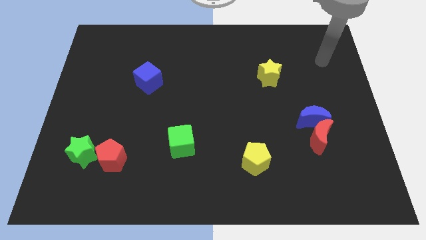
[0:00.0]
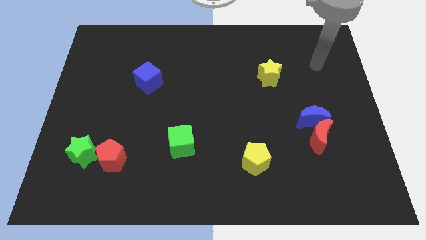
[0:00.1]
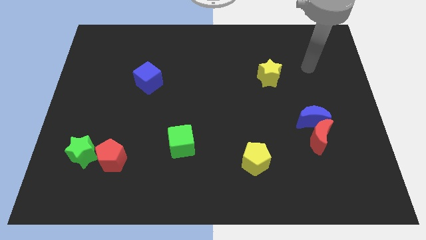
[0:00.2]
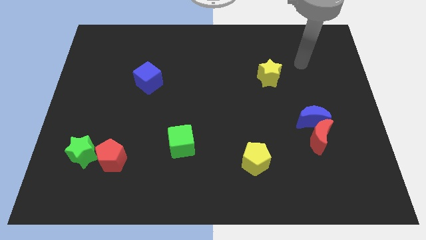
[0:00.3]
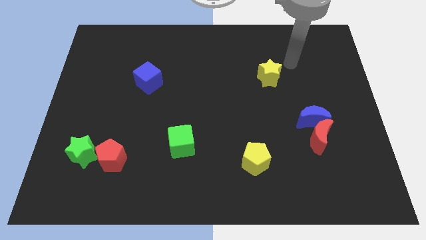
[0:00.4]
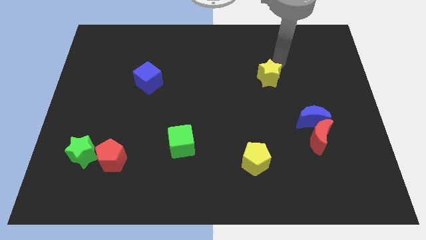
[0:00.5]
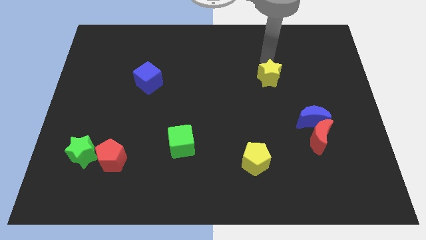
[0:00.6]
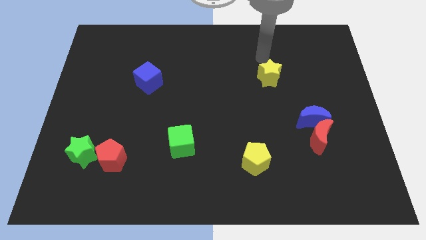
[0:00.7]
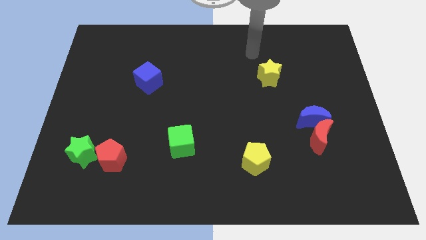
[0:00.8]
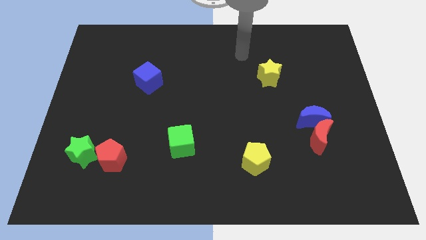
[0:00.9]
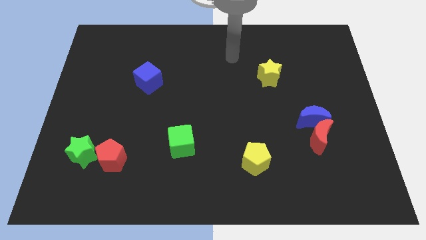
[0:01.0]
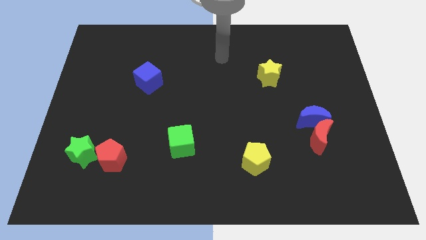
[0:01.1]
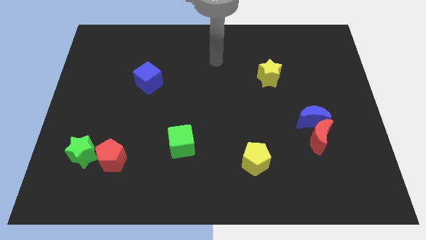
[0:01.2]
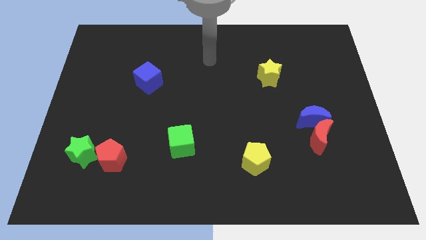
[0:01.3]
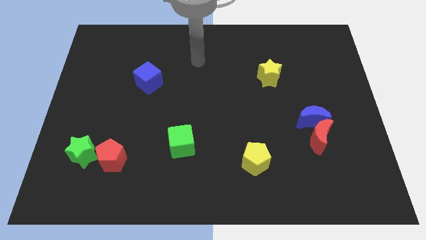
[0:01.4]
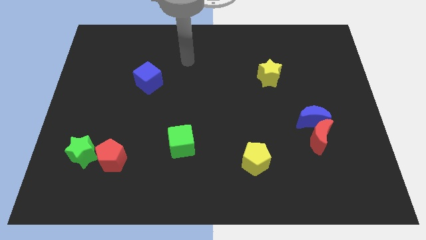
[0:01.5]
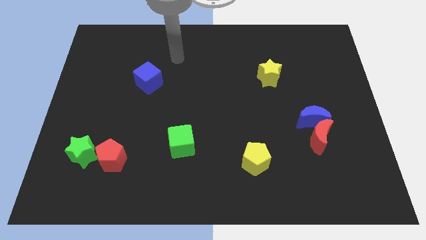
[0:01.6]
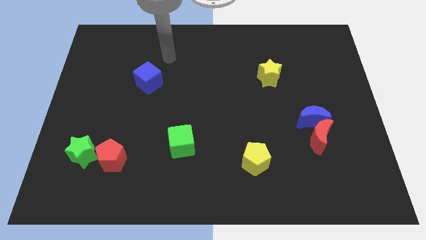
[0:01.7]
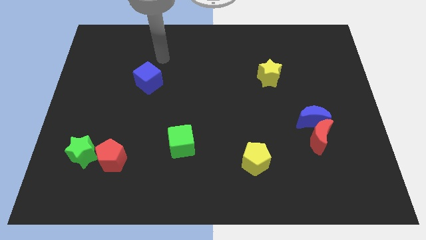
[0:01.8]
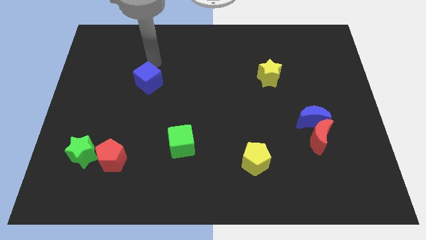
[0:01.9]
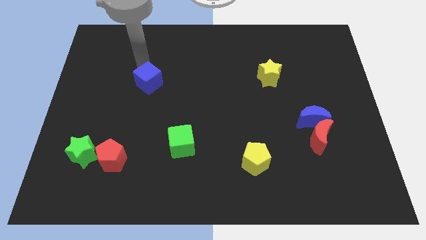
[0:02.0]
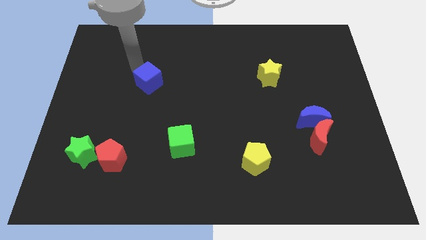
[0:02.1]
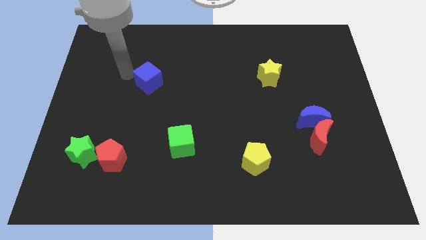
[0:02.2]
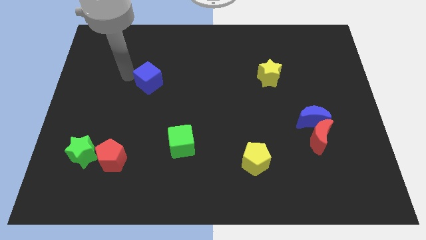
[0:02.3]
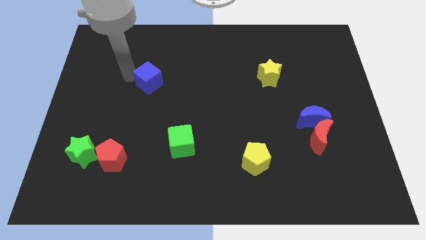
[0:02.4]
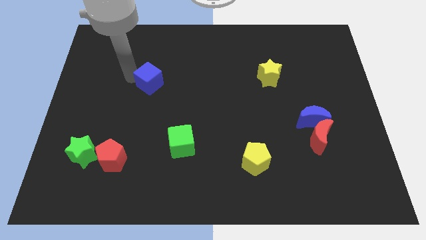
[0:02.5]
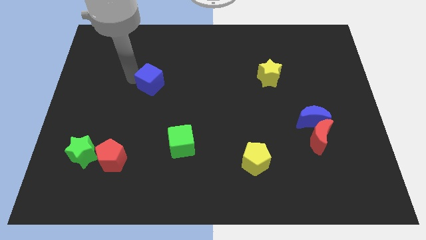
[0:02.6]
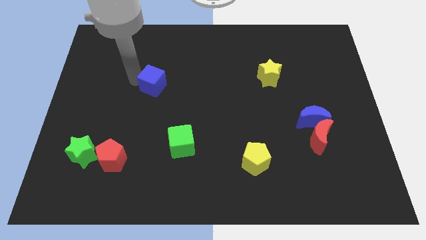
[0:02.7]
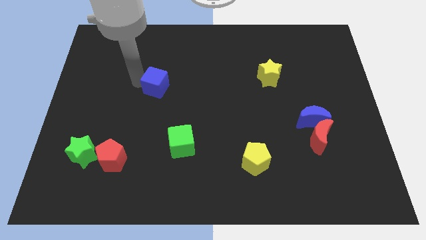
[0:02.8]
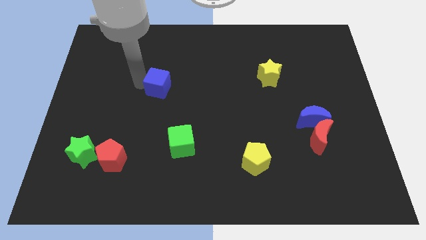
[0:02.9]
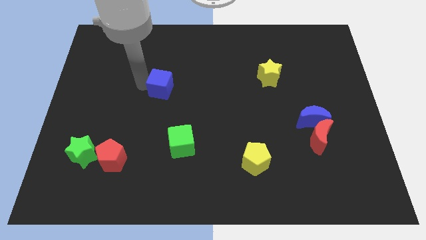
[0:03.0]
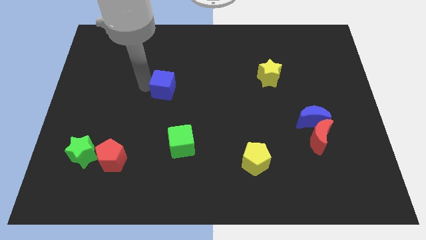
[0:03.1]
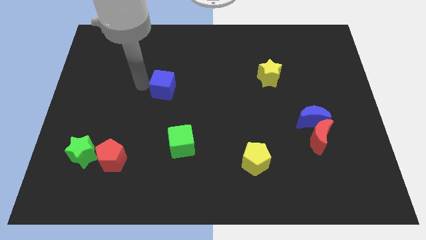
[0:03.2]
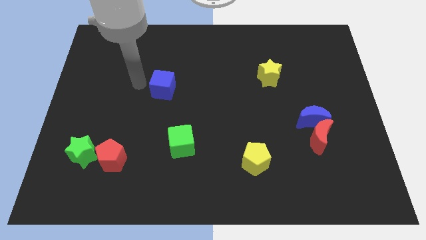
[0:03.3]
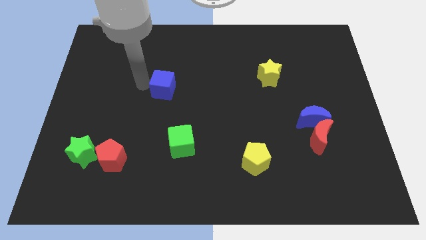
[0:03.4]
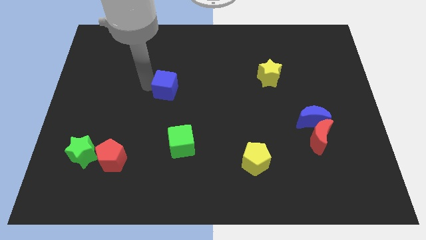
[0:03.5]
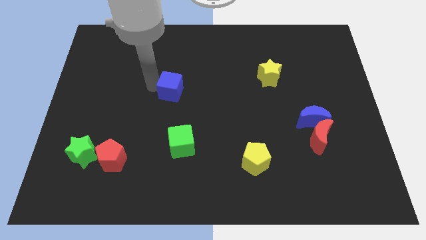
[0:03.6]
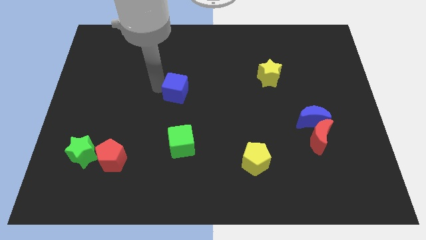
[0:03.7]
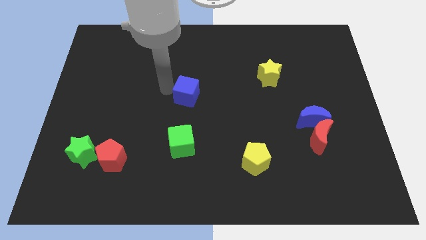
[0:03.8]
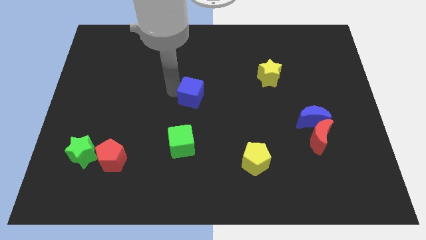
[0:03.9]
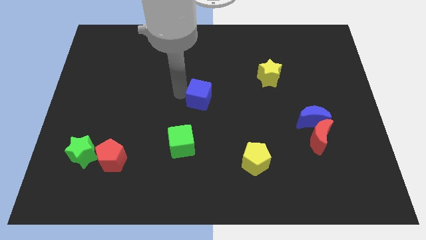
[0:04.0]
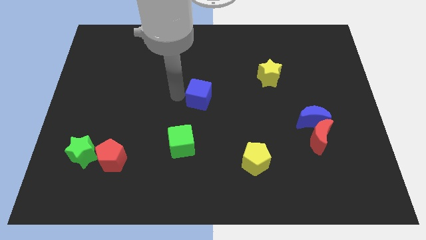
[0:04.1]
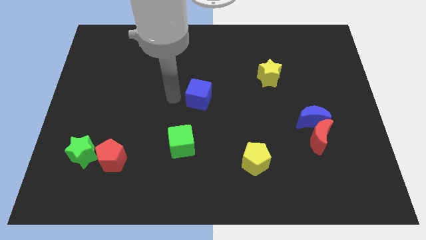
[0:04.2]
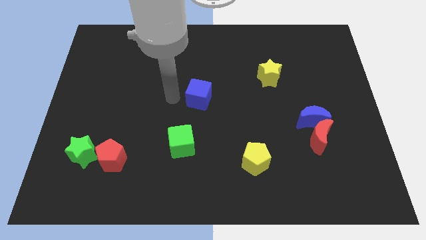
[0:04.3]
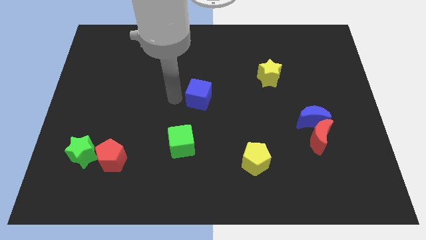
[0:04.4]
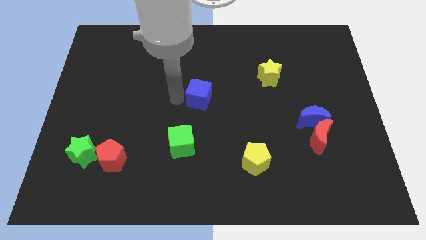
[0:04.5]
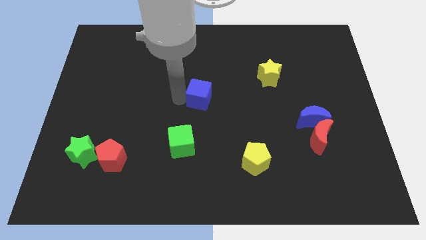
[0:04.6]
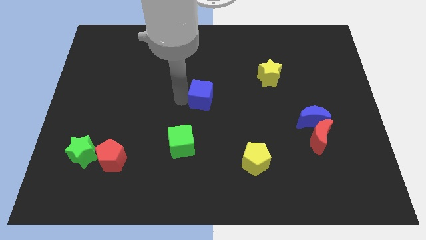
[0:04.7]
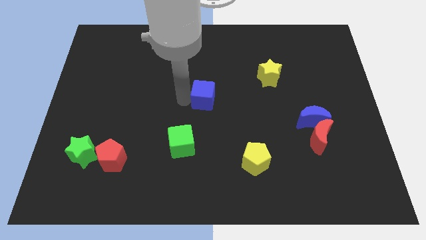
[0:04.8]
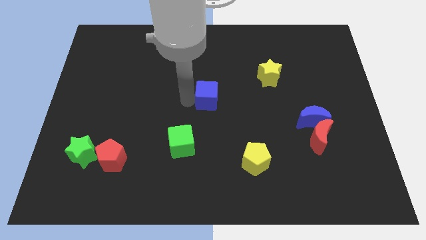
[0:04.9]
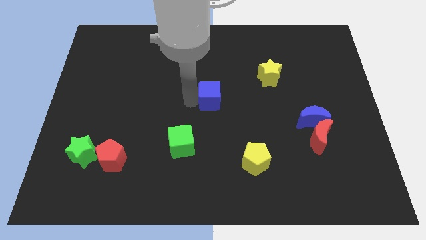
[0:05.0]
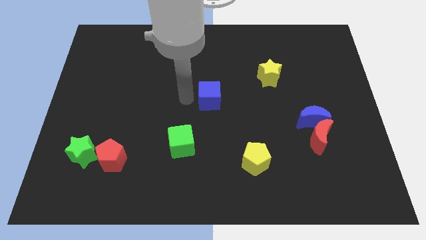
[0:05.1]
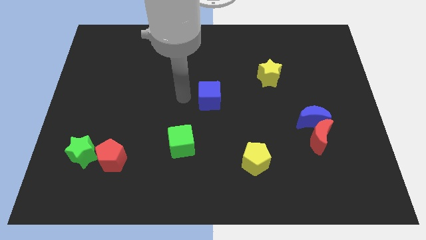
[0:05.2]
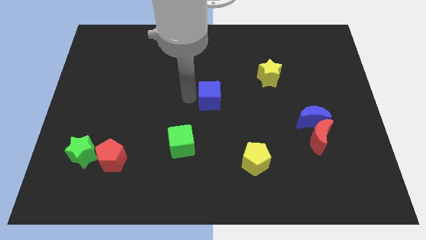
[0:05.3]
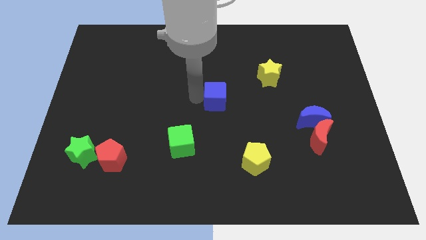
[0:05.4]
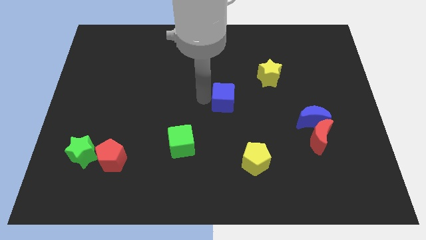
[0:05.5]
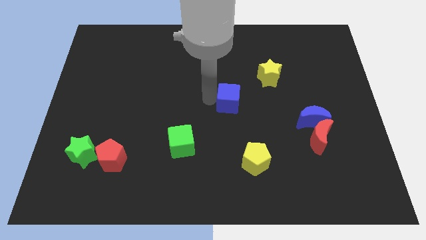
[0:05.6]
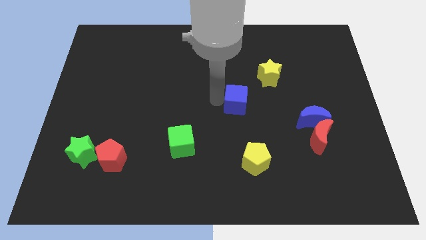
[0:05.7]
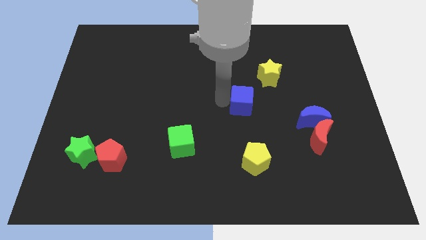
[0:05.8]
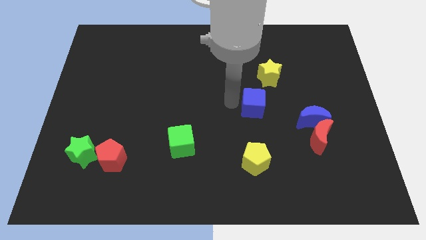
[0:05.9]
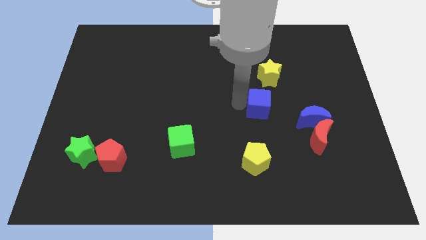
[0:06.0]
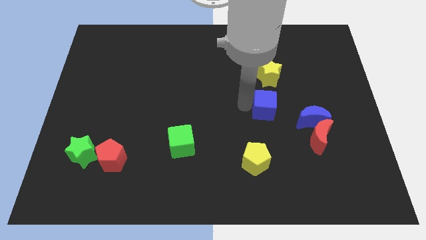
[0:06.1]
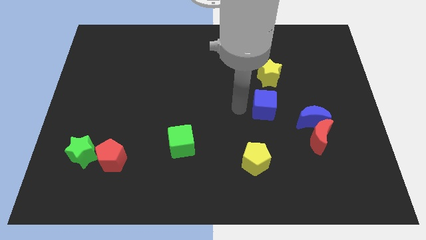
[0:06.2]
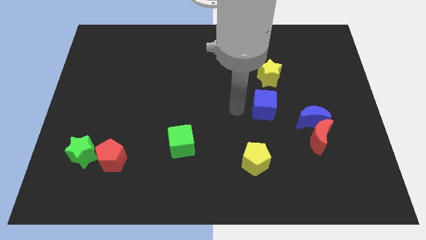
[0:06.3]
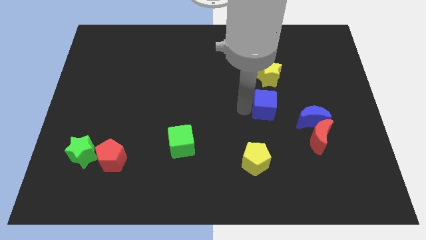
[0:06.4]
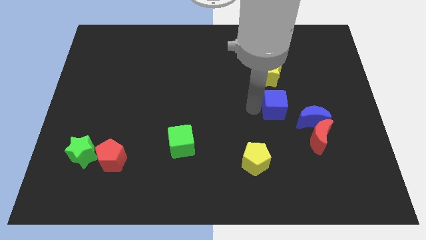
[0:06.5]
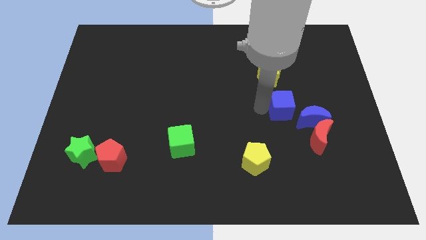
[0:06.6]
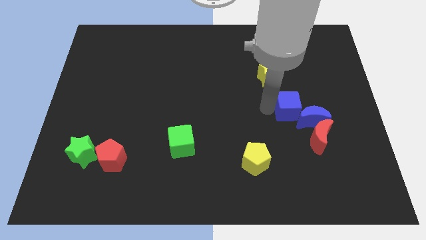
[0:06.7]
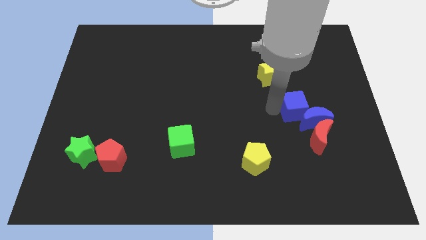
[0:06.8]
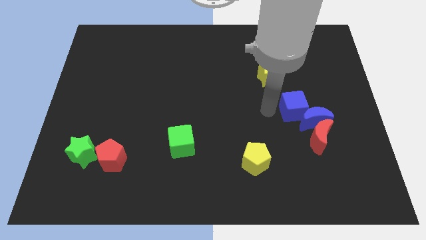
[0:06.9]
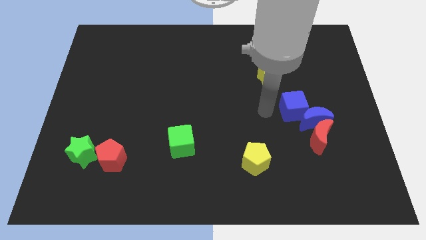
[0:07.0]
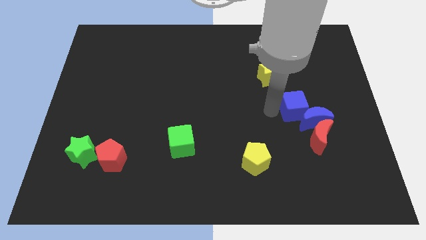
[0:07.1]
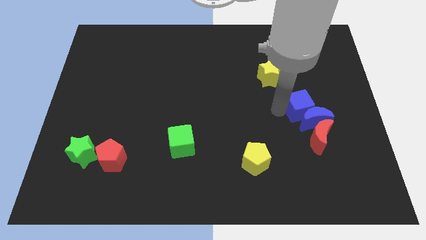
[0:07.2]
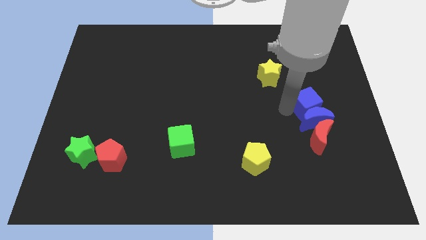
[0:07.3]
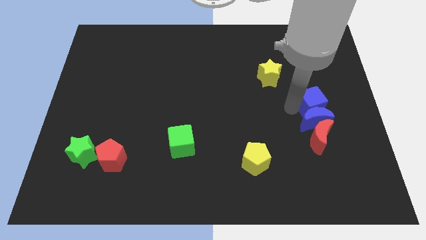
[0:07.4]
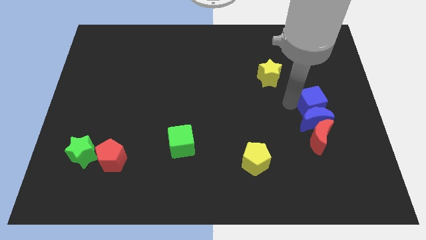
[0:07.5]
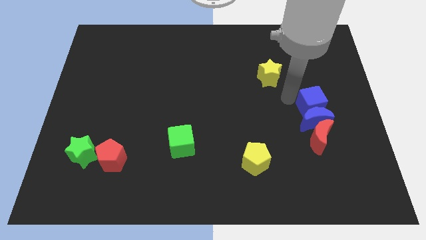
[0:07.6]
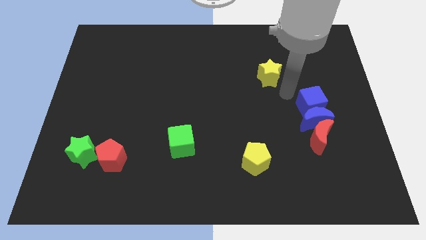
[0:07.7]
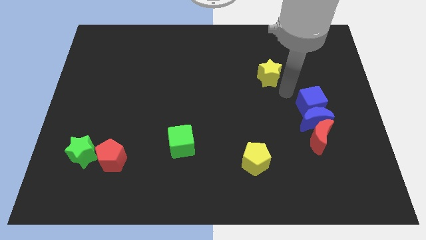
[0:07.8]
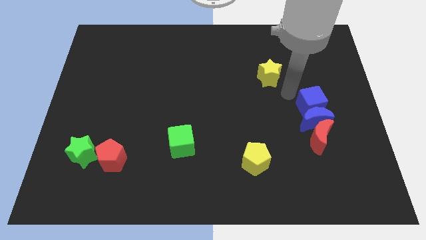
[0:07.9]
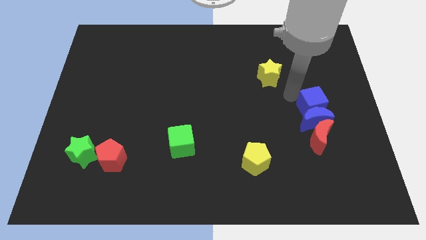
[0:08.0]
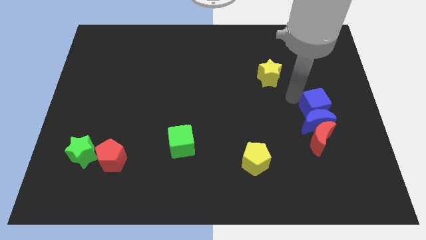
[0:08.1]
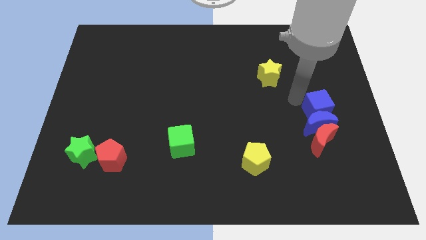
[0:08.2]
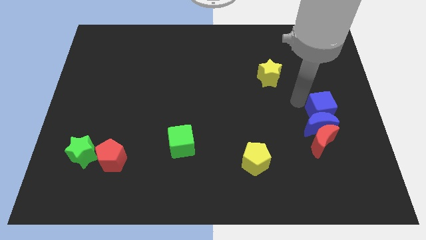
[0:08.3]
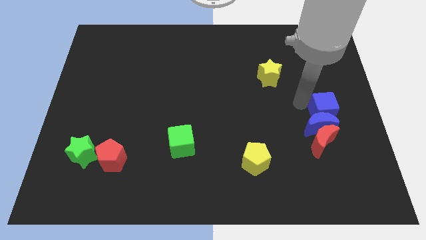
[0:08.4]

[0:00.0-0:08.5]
put the blue cube diagonally up and to the right of the red moon
